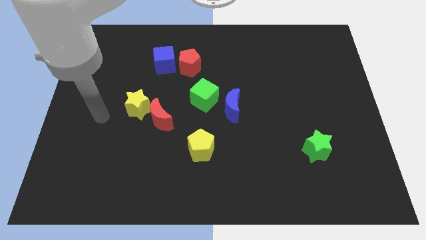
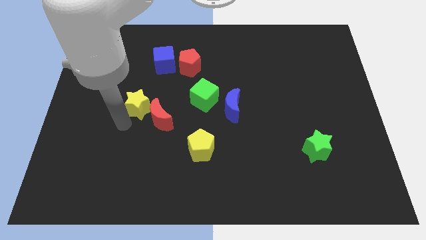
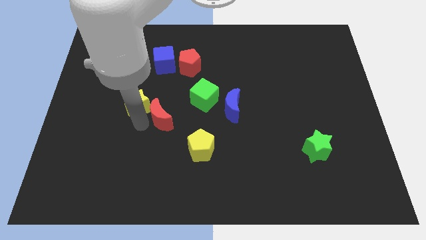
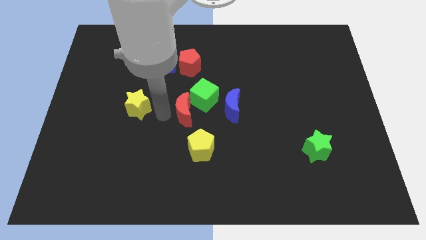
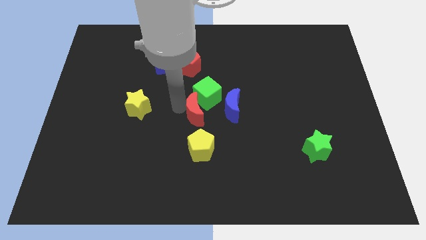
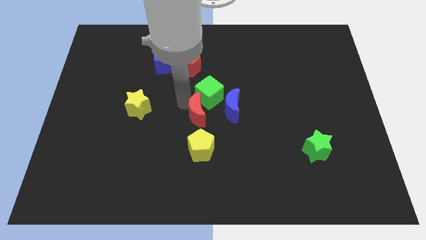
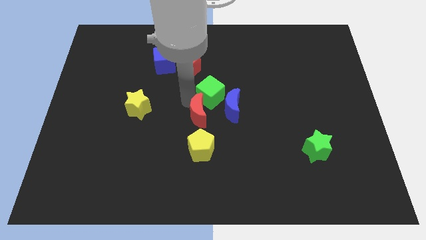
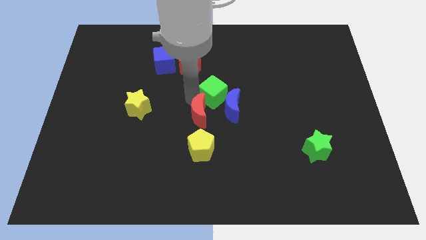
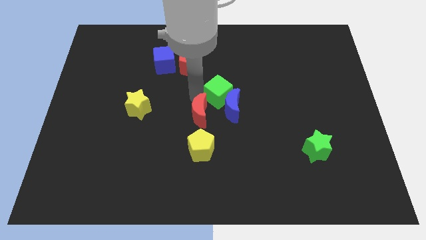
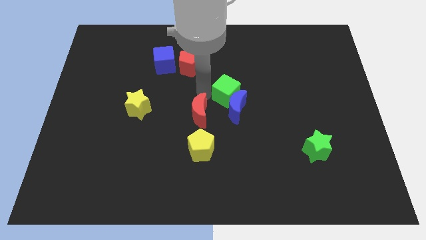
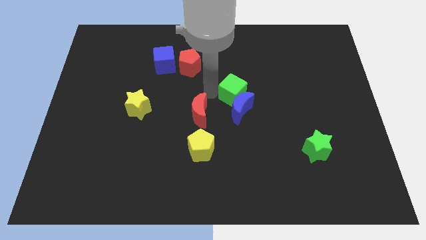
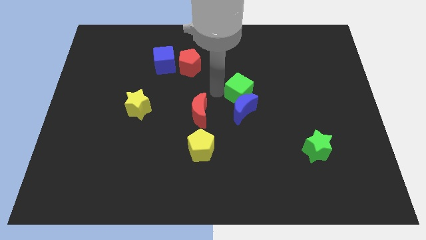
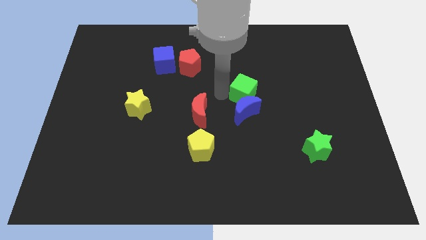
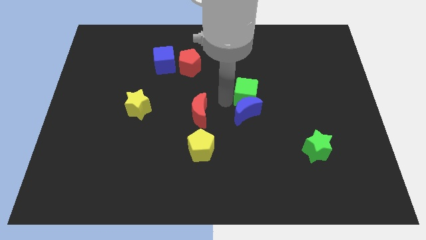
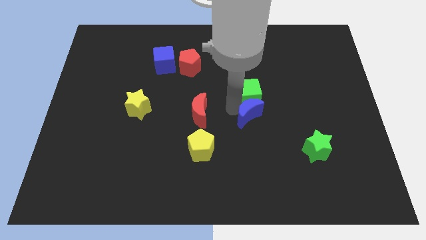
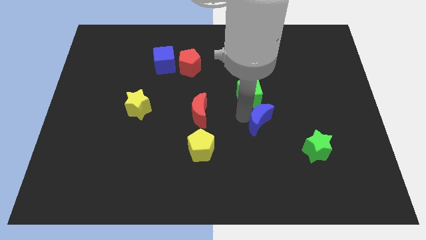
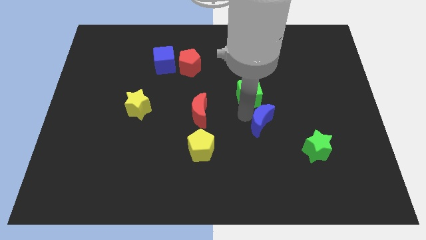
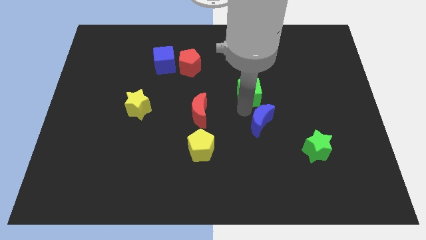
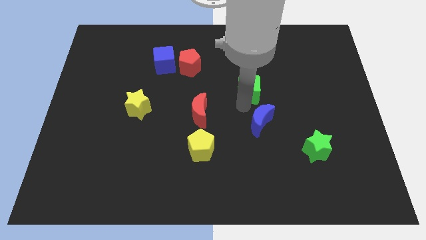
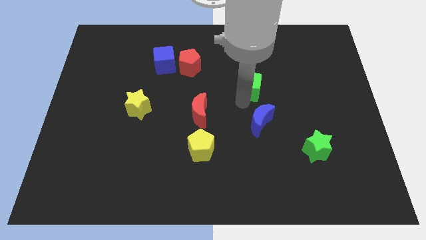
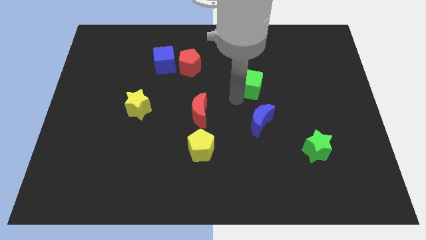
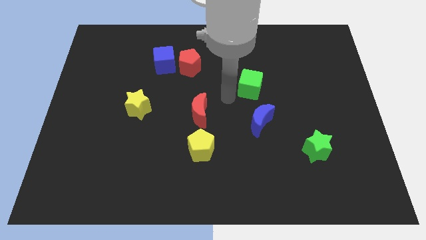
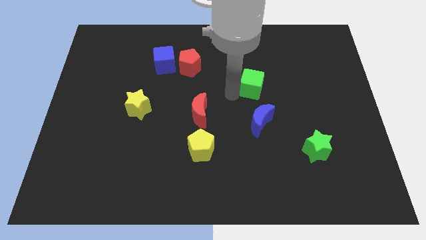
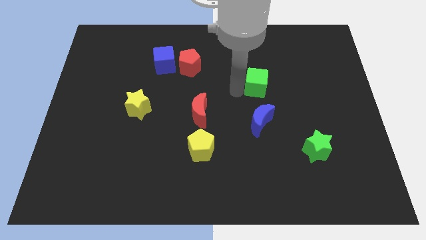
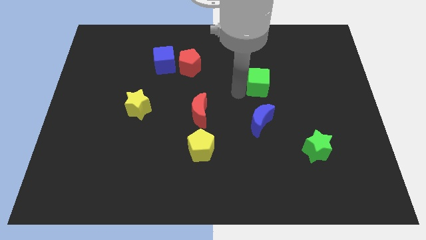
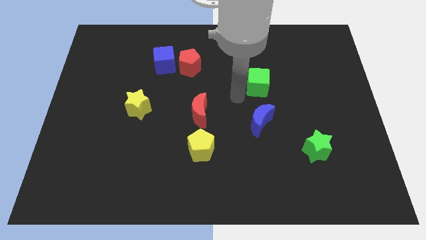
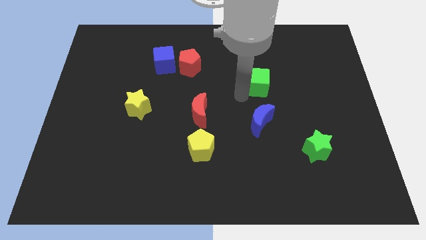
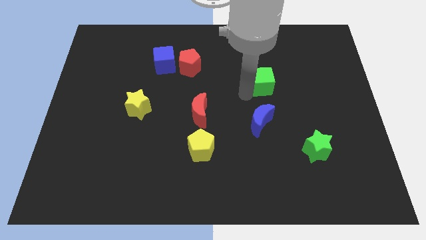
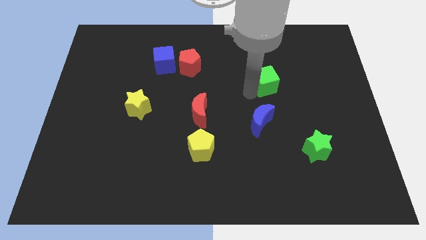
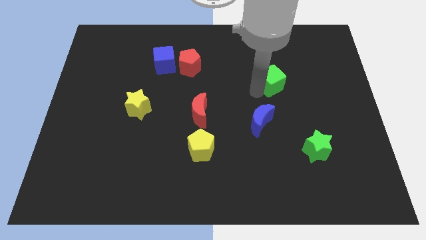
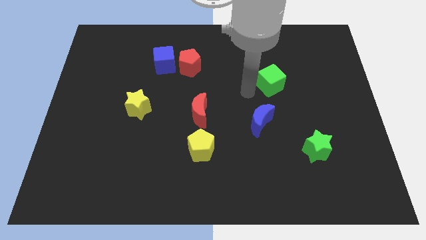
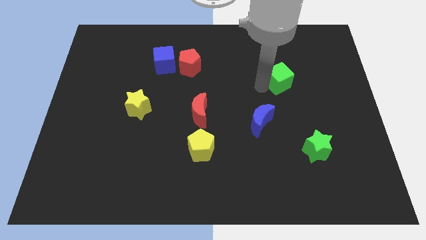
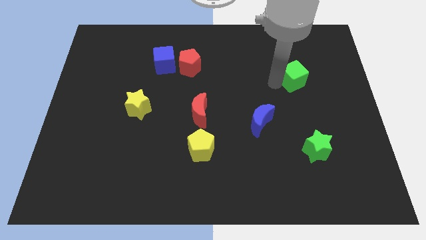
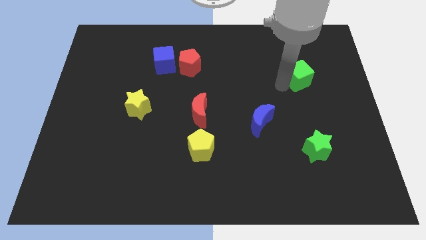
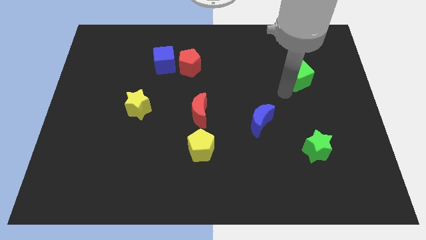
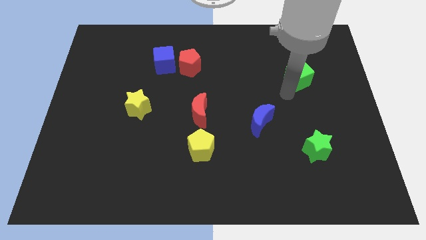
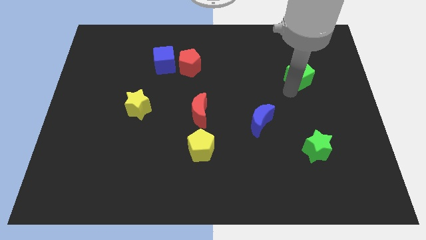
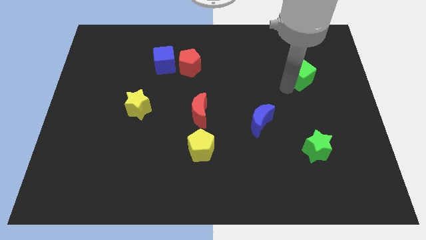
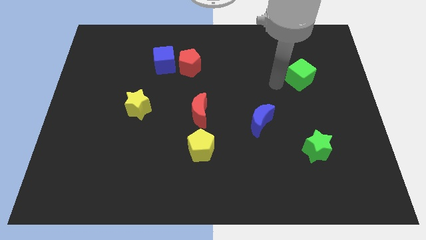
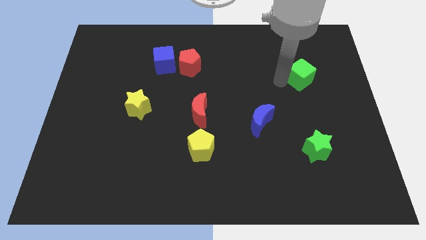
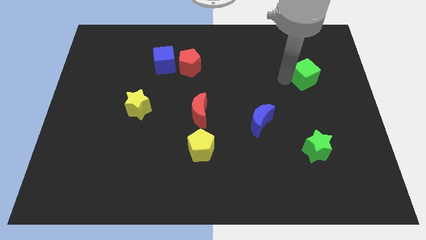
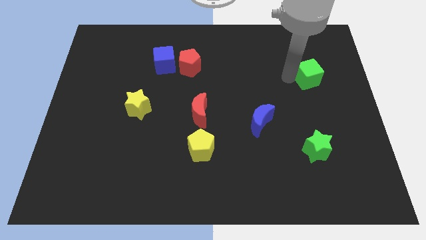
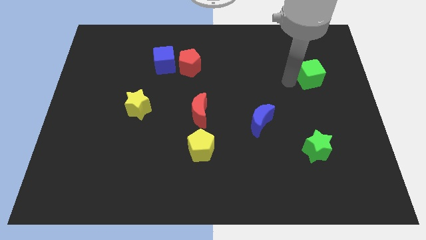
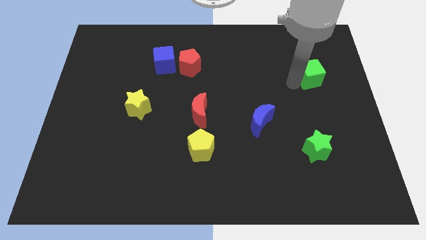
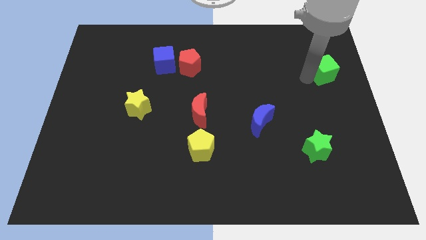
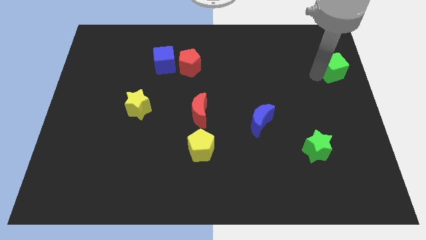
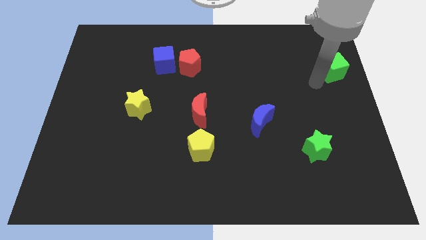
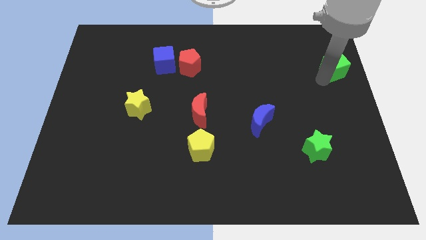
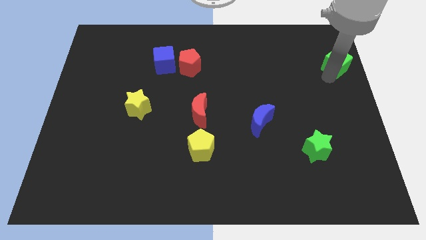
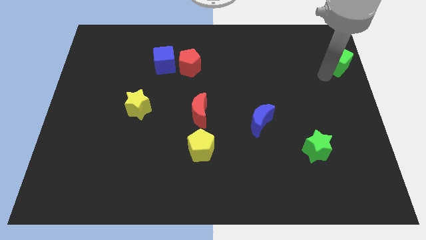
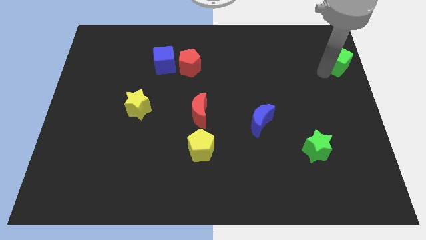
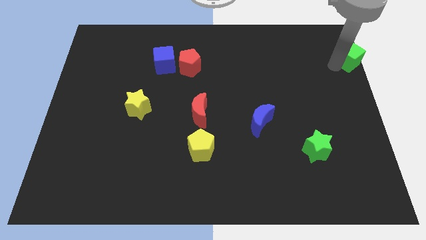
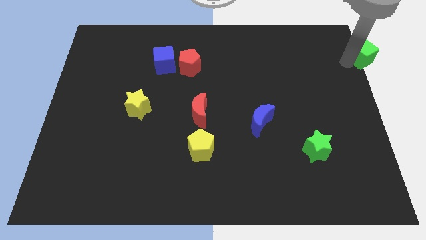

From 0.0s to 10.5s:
push the green cube to the upper right corner
